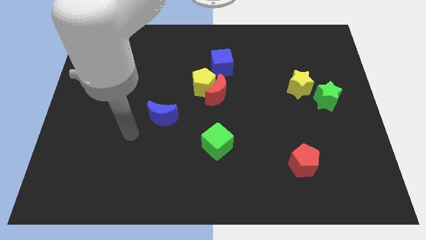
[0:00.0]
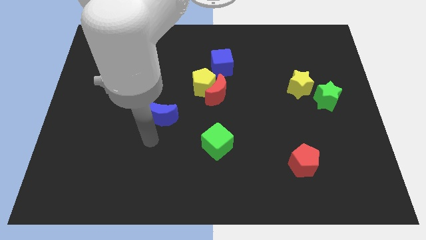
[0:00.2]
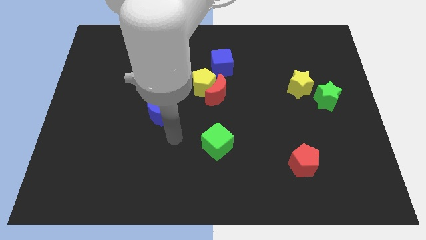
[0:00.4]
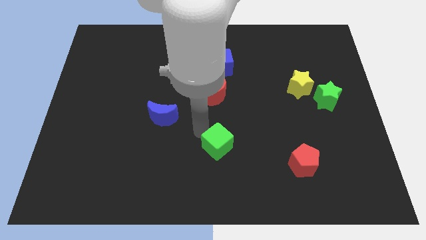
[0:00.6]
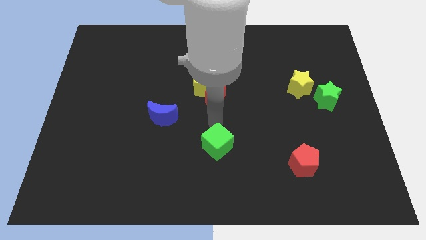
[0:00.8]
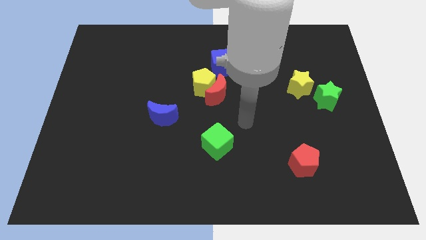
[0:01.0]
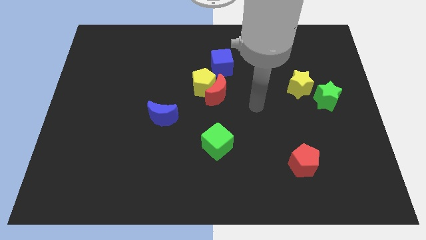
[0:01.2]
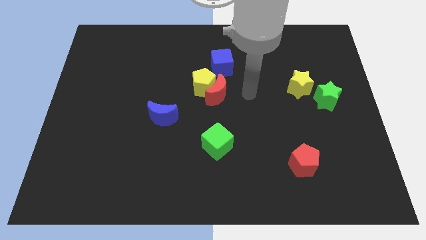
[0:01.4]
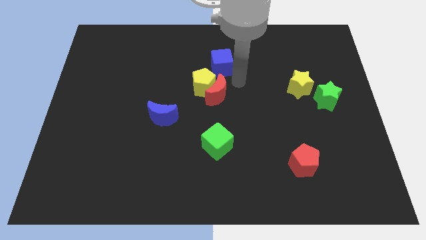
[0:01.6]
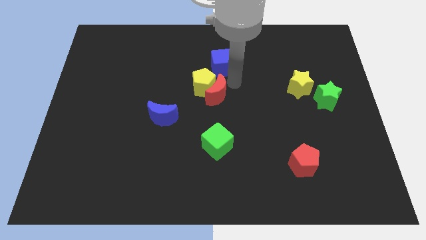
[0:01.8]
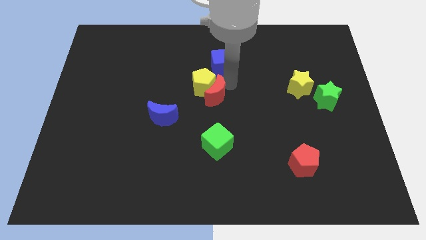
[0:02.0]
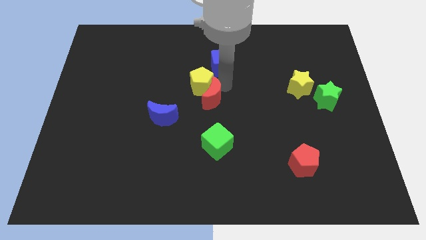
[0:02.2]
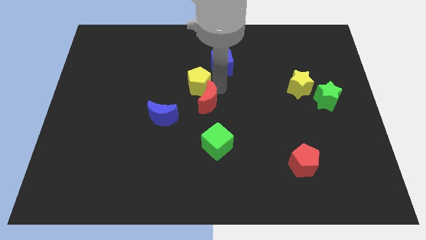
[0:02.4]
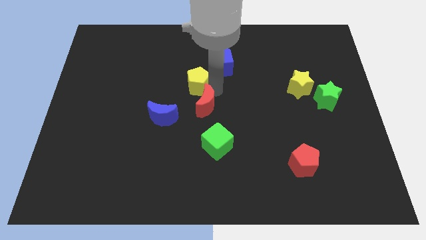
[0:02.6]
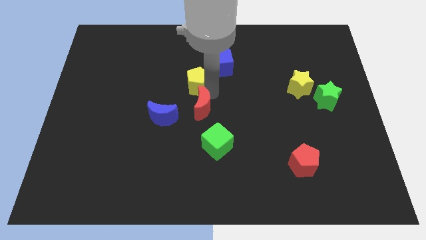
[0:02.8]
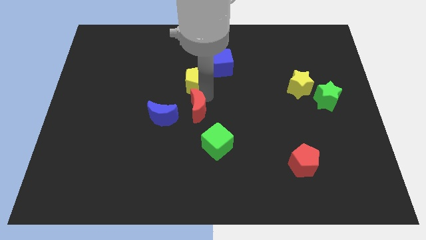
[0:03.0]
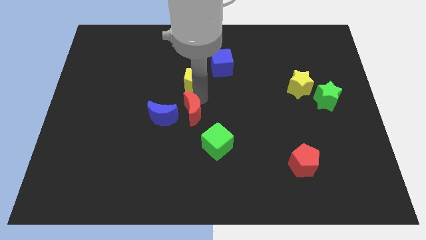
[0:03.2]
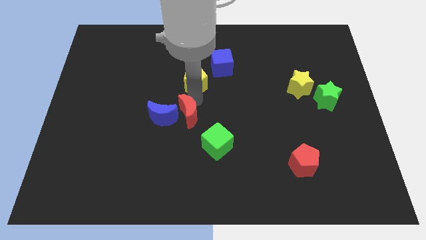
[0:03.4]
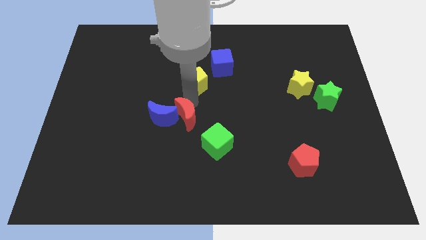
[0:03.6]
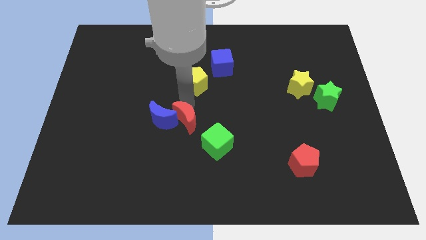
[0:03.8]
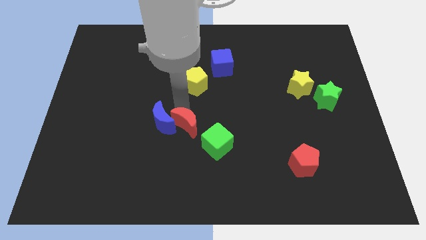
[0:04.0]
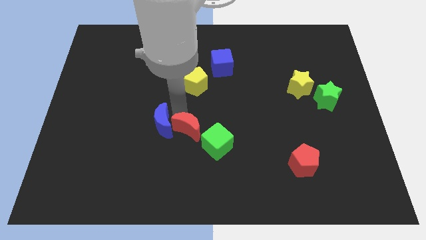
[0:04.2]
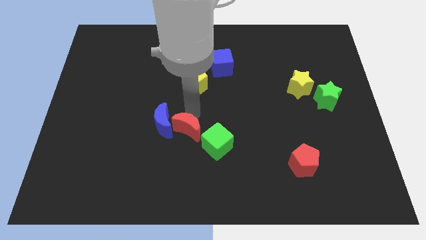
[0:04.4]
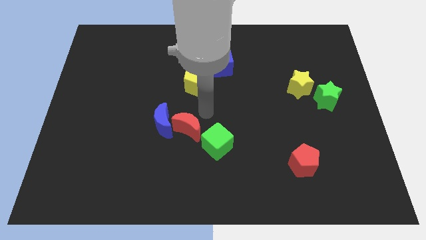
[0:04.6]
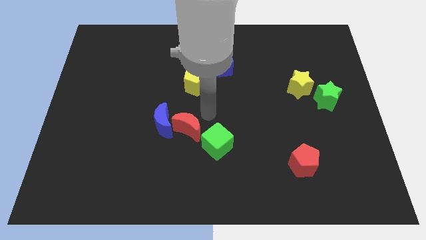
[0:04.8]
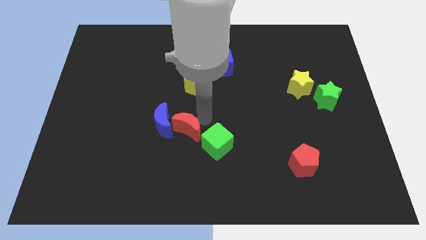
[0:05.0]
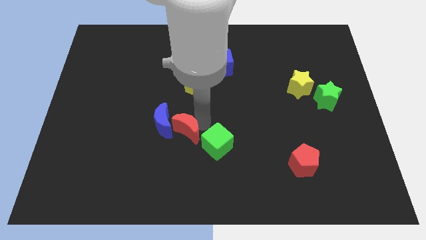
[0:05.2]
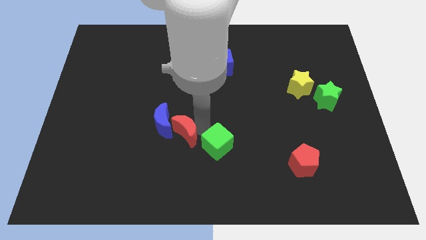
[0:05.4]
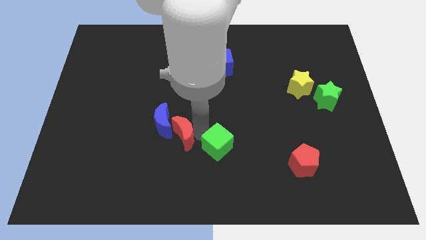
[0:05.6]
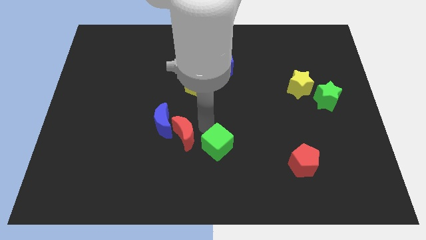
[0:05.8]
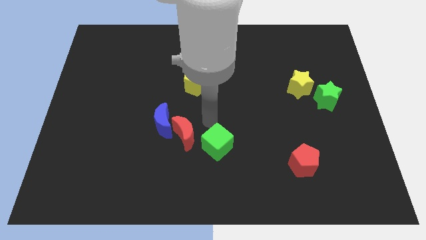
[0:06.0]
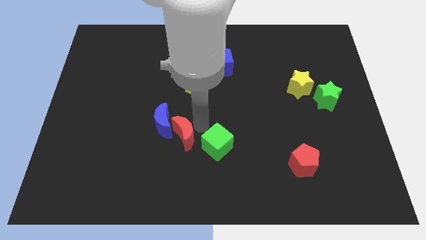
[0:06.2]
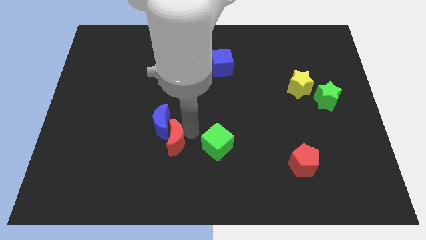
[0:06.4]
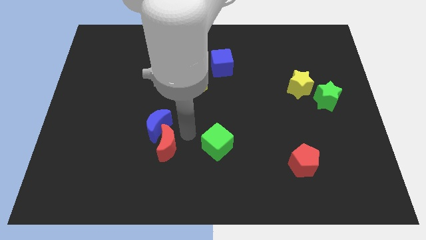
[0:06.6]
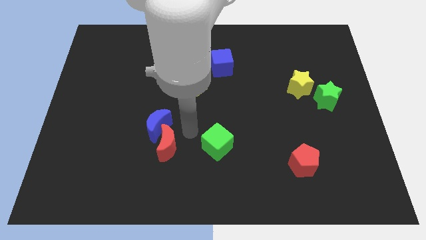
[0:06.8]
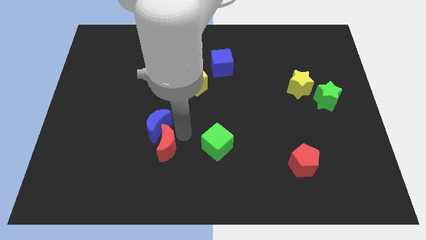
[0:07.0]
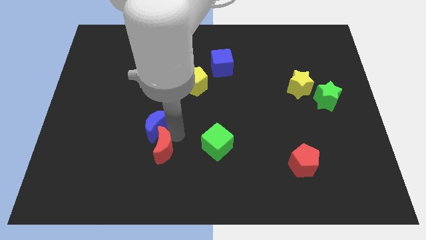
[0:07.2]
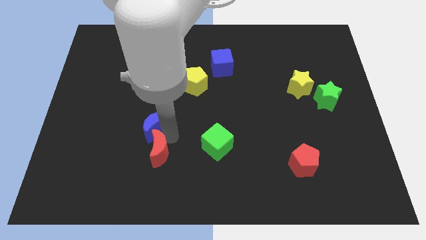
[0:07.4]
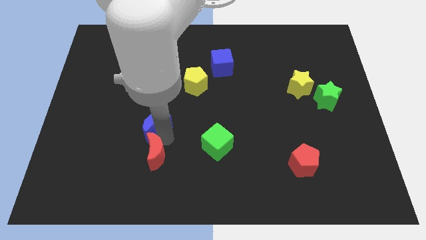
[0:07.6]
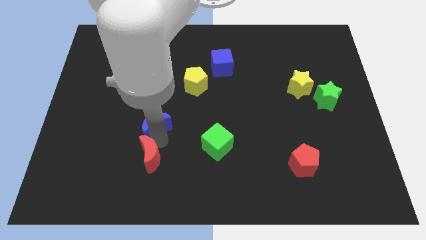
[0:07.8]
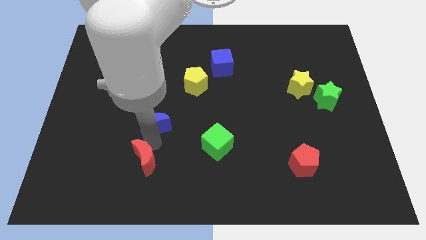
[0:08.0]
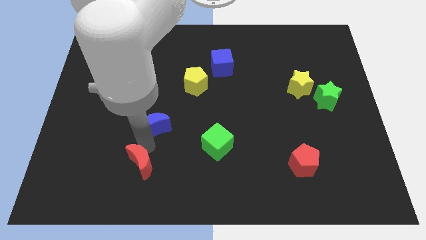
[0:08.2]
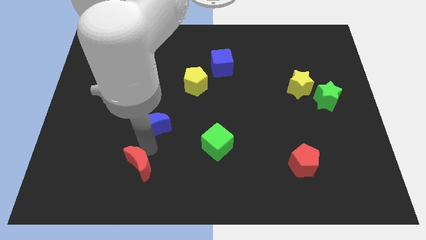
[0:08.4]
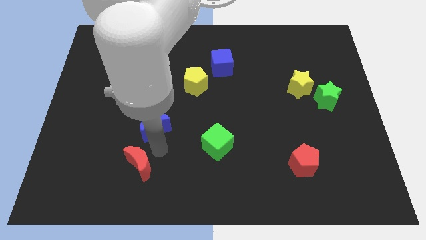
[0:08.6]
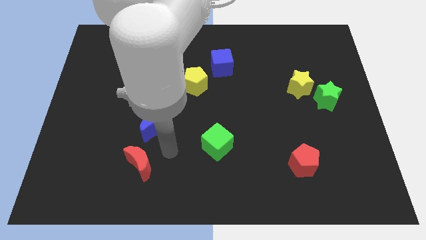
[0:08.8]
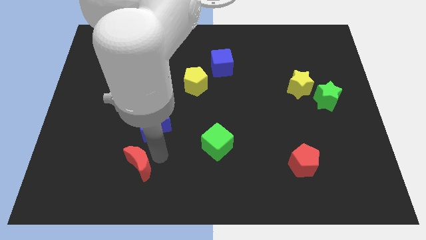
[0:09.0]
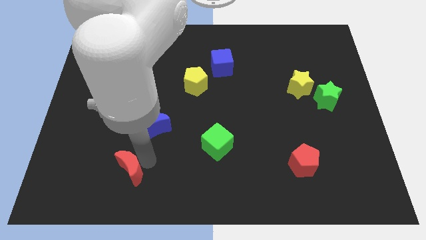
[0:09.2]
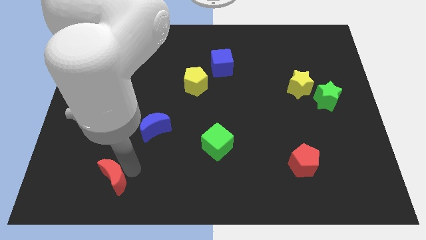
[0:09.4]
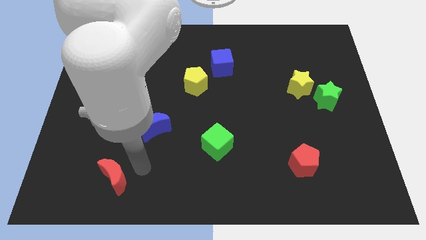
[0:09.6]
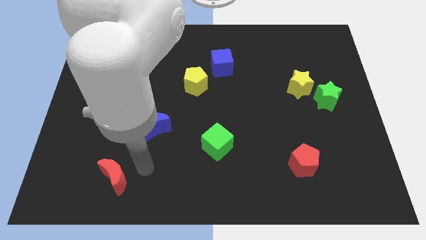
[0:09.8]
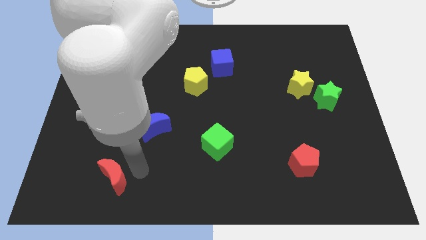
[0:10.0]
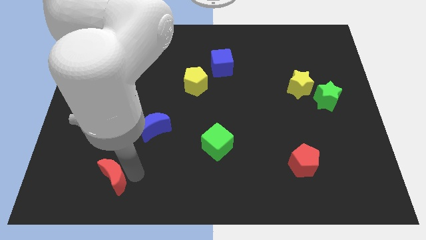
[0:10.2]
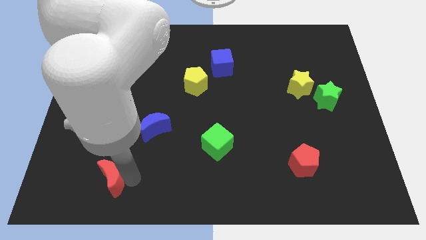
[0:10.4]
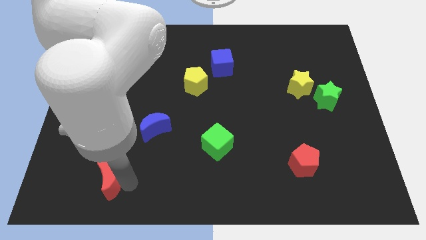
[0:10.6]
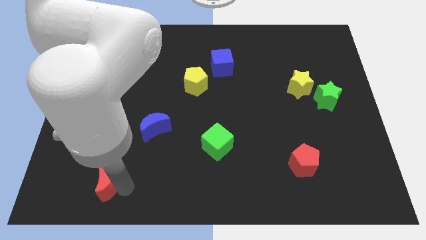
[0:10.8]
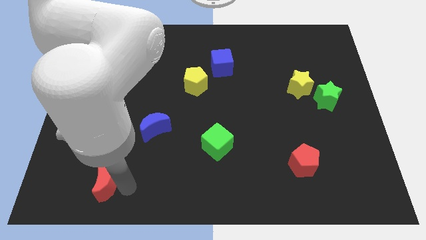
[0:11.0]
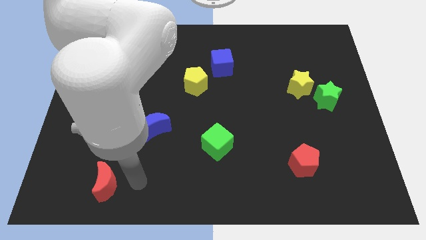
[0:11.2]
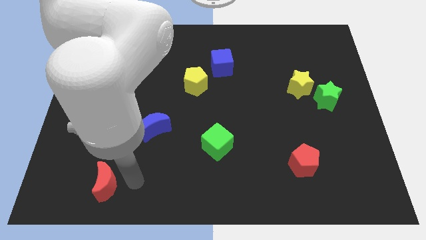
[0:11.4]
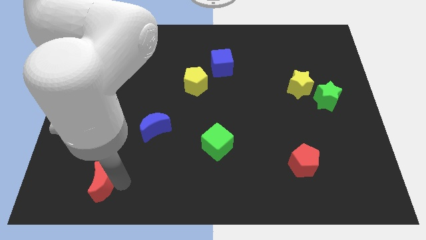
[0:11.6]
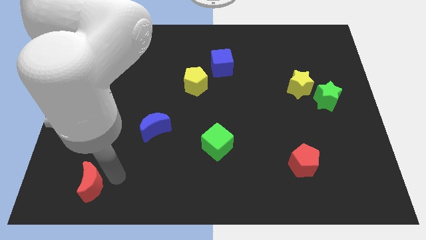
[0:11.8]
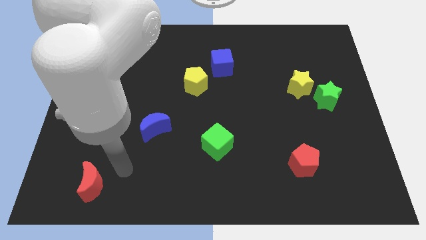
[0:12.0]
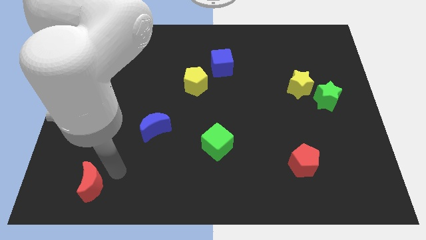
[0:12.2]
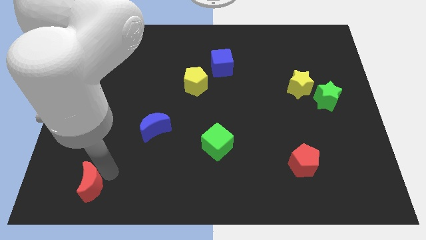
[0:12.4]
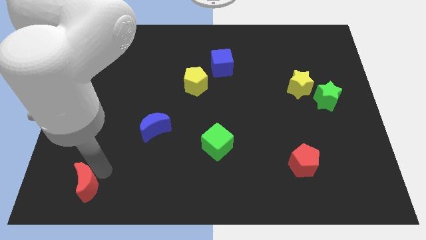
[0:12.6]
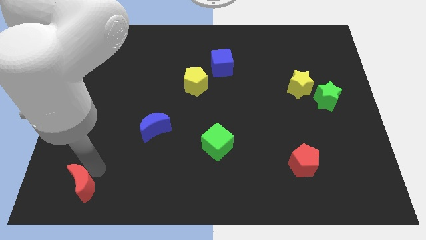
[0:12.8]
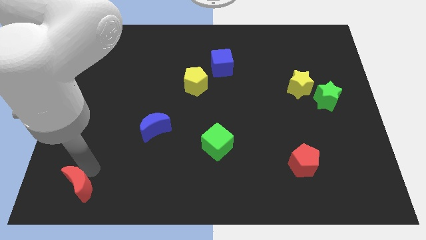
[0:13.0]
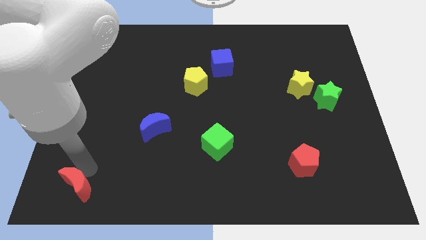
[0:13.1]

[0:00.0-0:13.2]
move the red moon to the bottom left of the board
